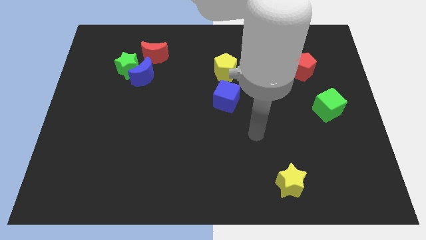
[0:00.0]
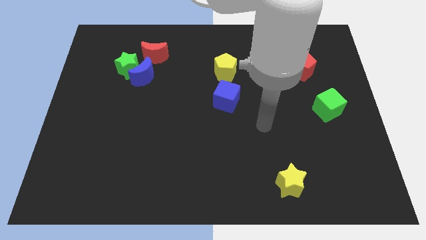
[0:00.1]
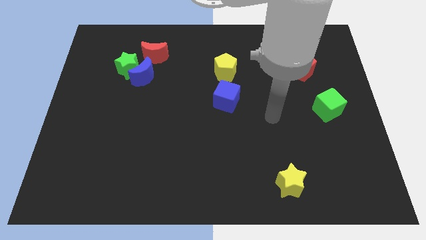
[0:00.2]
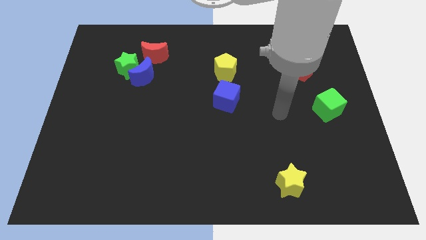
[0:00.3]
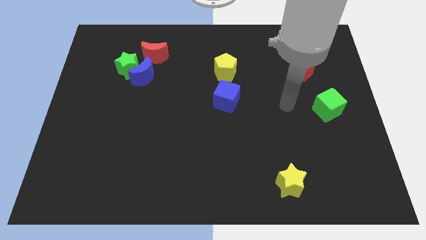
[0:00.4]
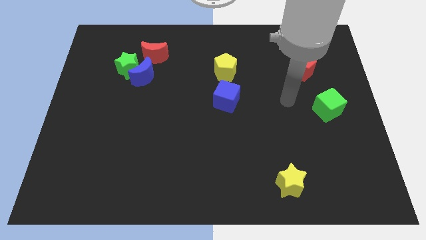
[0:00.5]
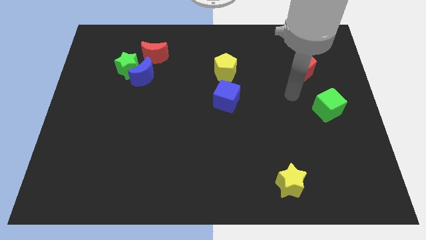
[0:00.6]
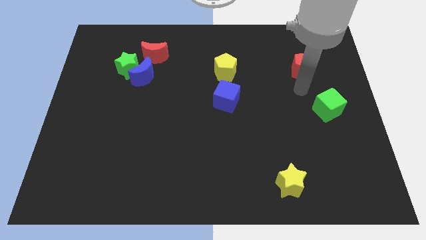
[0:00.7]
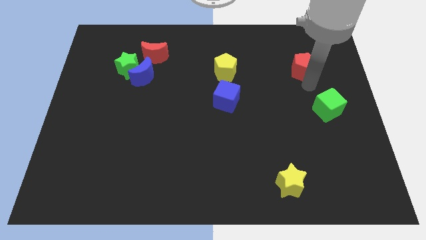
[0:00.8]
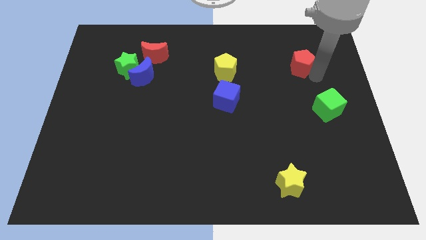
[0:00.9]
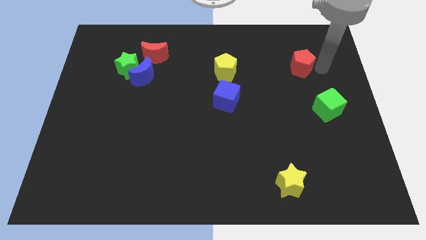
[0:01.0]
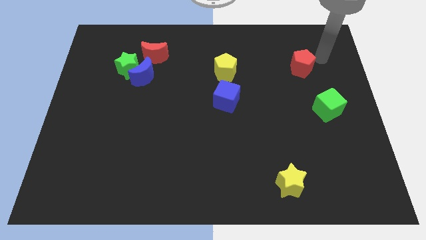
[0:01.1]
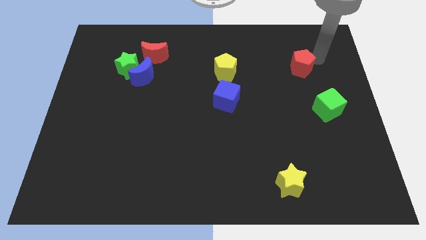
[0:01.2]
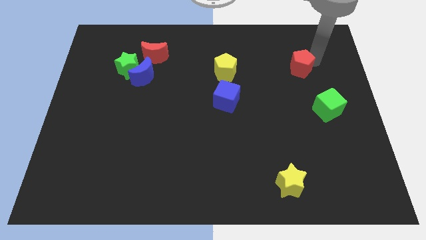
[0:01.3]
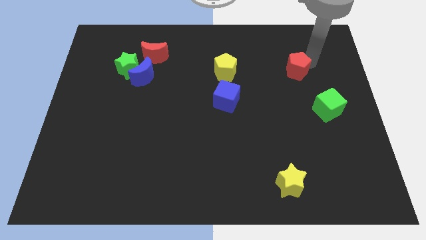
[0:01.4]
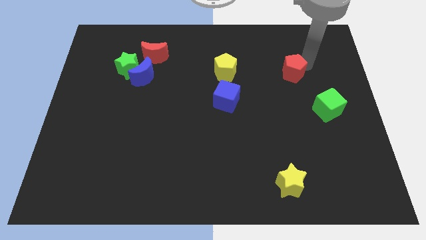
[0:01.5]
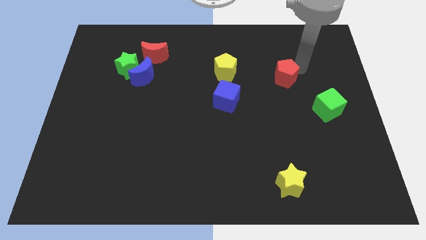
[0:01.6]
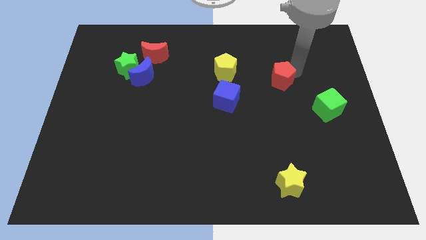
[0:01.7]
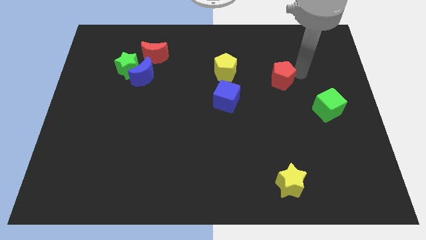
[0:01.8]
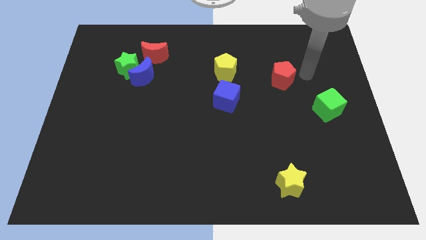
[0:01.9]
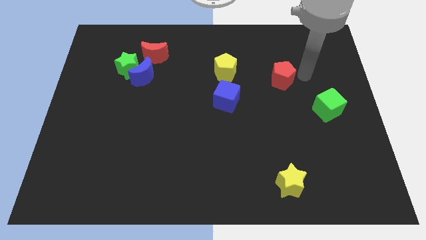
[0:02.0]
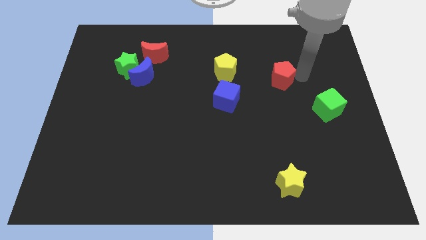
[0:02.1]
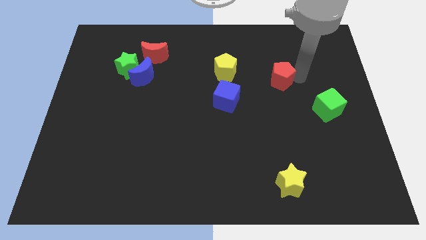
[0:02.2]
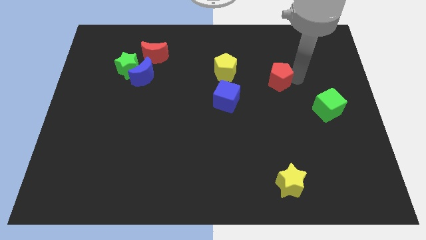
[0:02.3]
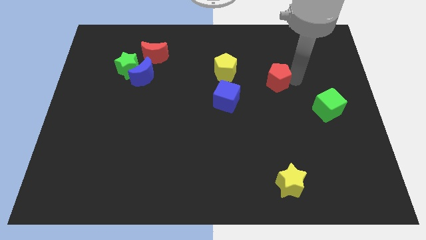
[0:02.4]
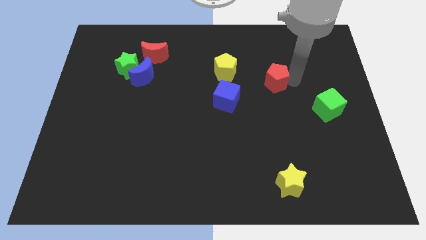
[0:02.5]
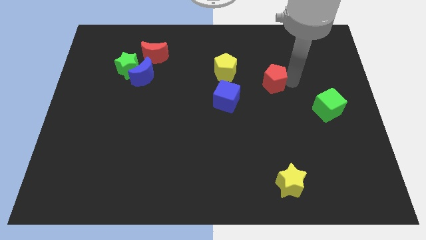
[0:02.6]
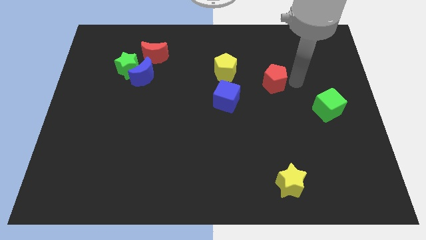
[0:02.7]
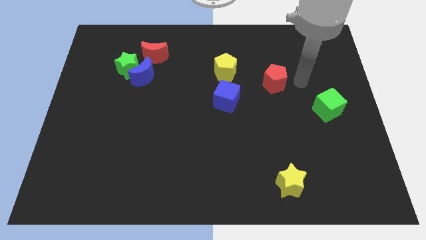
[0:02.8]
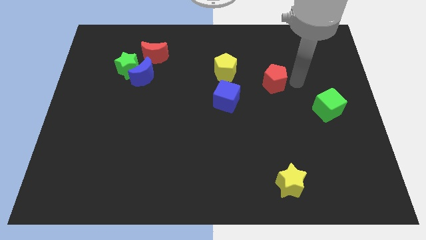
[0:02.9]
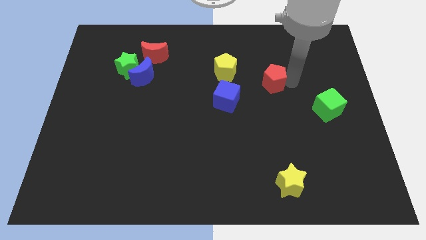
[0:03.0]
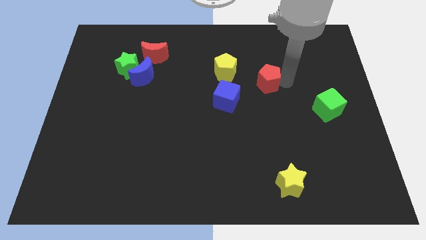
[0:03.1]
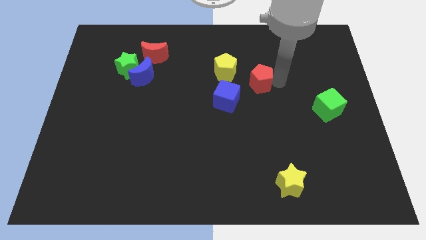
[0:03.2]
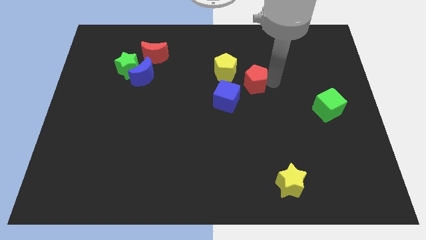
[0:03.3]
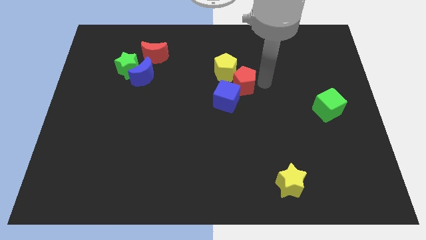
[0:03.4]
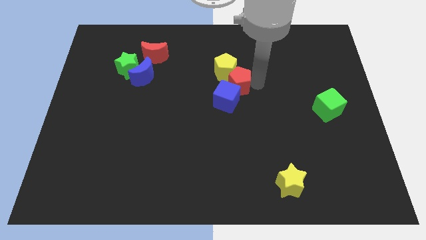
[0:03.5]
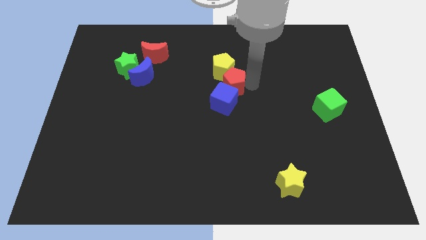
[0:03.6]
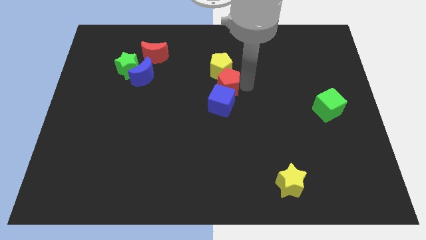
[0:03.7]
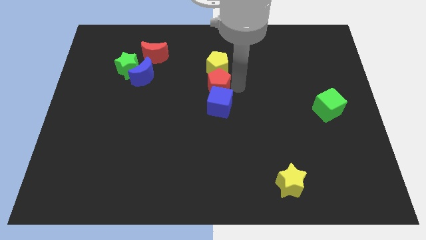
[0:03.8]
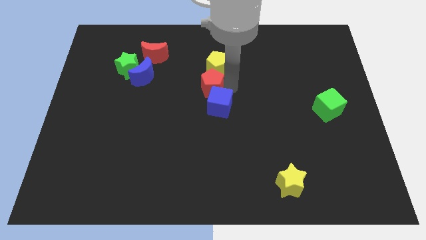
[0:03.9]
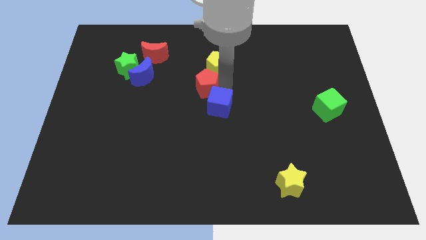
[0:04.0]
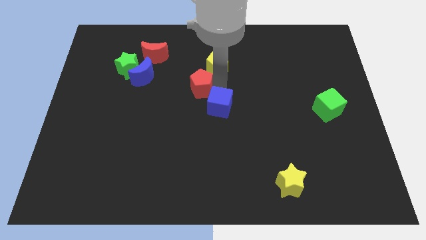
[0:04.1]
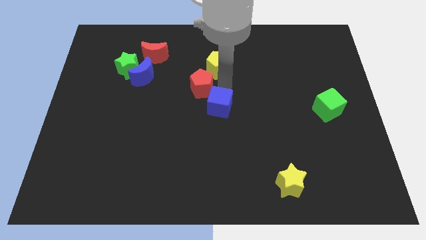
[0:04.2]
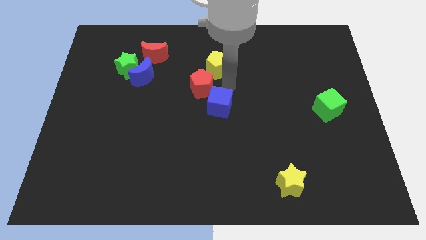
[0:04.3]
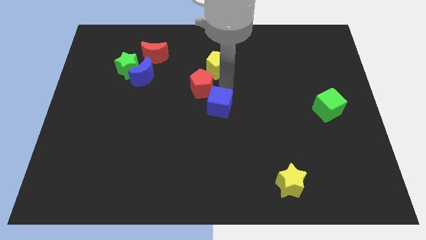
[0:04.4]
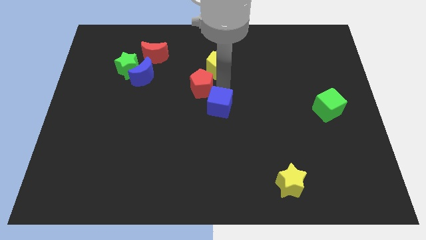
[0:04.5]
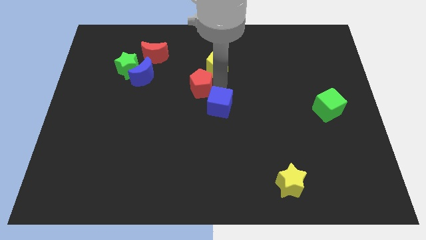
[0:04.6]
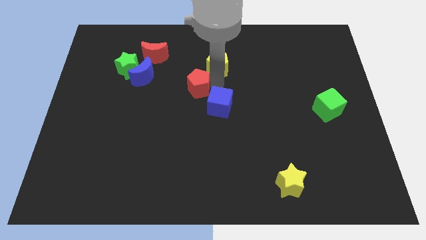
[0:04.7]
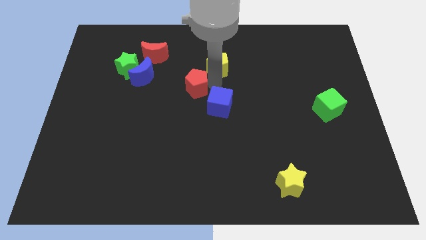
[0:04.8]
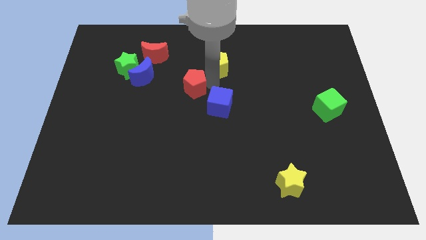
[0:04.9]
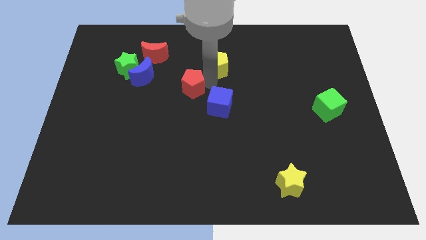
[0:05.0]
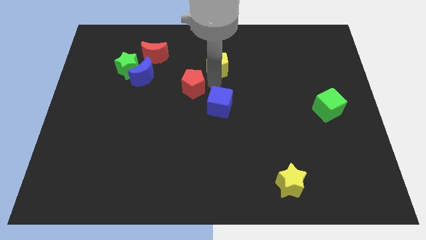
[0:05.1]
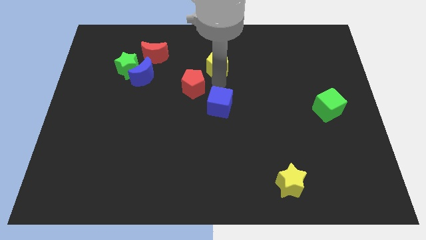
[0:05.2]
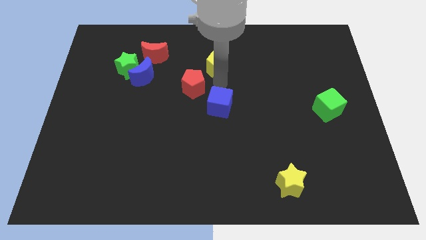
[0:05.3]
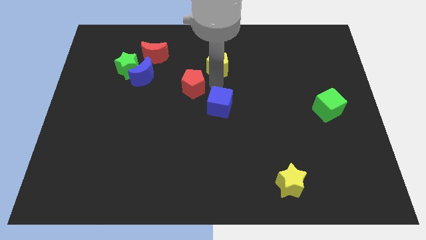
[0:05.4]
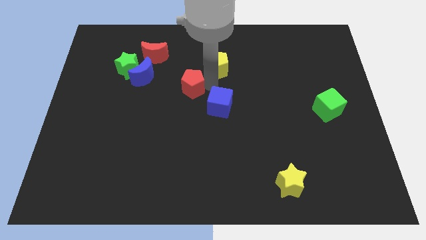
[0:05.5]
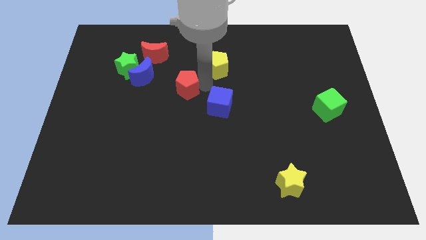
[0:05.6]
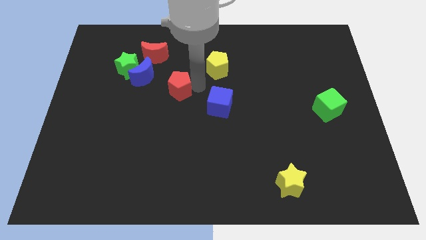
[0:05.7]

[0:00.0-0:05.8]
put the red pentagon to the bottom right side of the blue moon

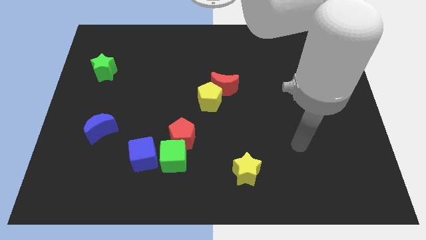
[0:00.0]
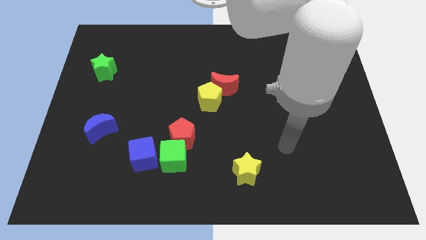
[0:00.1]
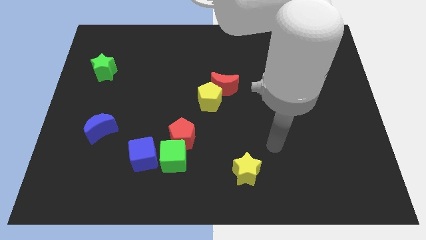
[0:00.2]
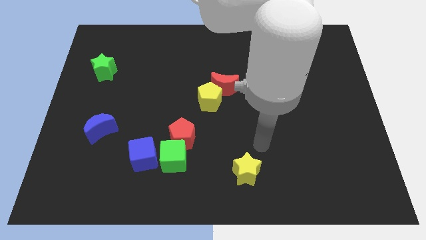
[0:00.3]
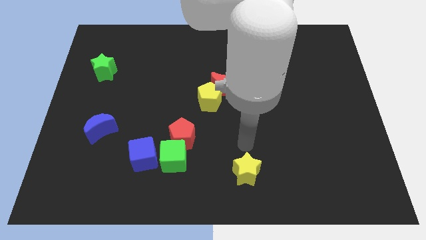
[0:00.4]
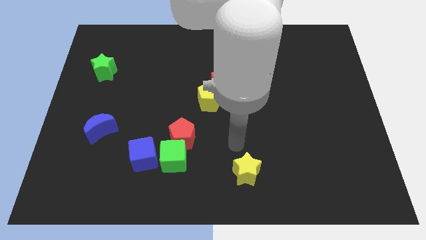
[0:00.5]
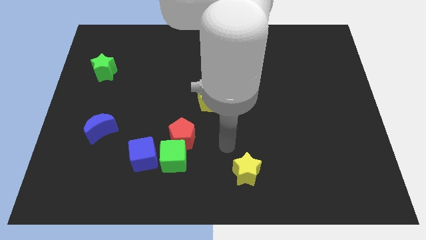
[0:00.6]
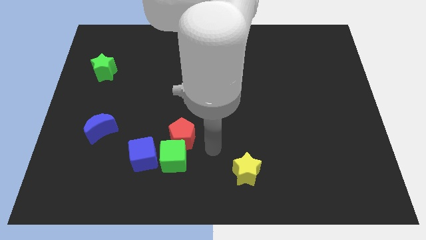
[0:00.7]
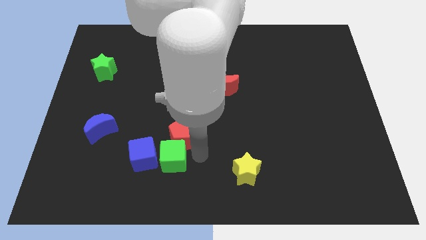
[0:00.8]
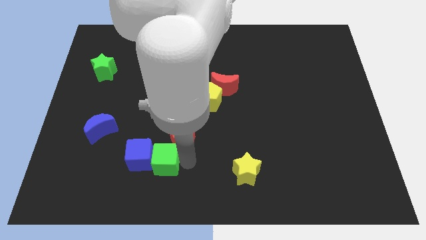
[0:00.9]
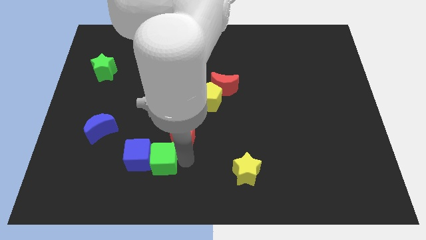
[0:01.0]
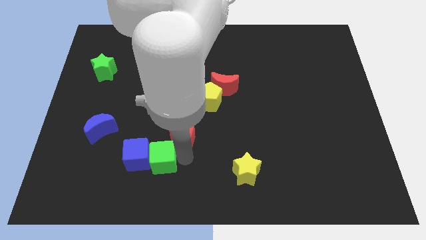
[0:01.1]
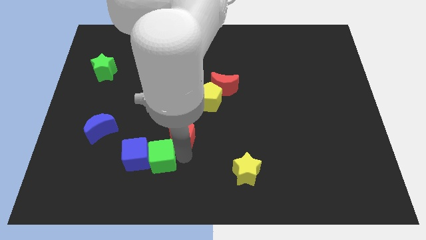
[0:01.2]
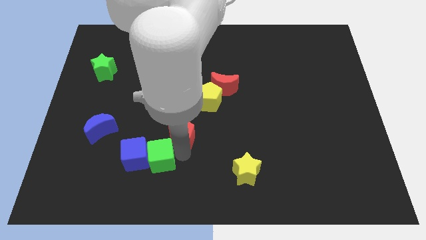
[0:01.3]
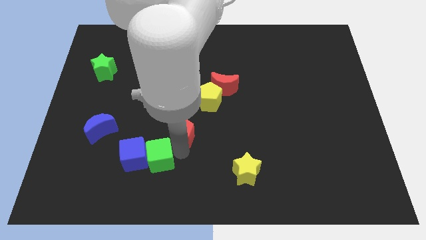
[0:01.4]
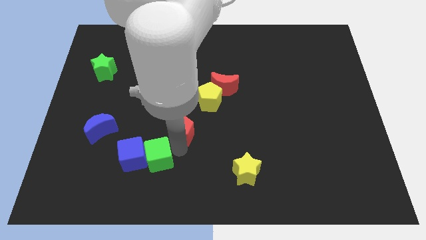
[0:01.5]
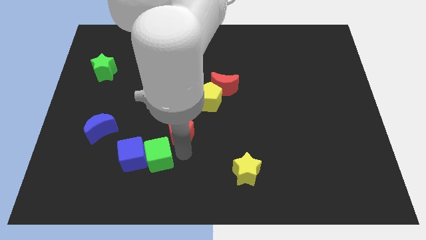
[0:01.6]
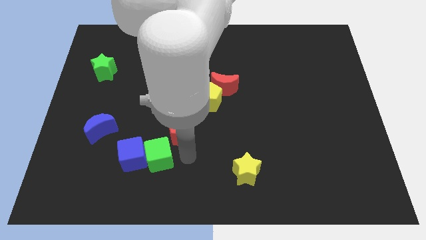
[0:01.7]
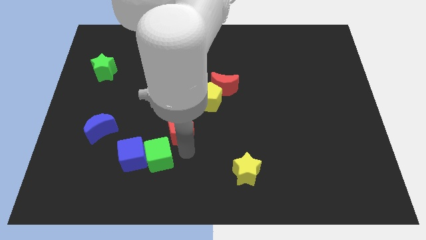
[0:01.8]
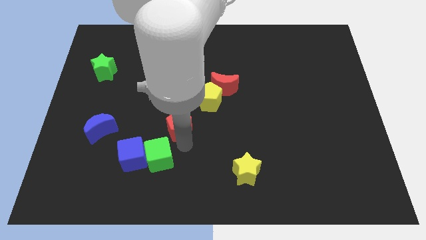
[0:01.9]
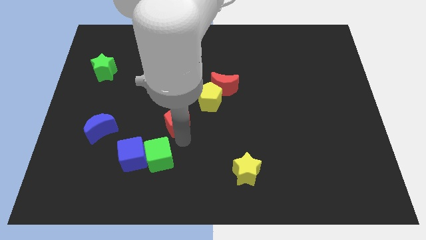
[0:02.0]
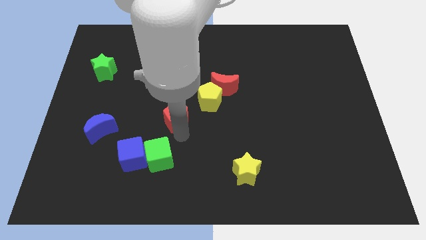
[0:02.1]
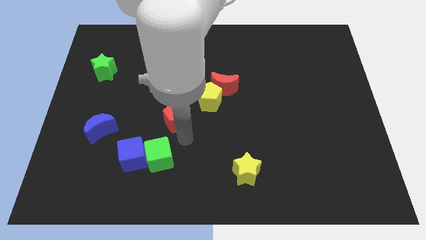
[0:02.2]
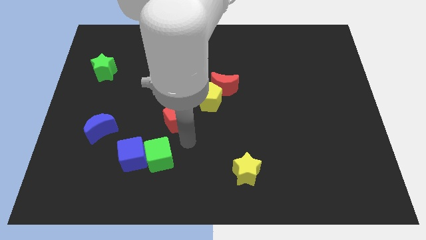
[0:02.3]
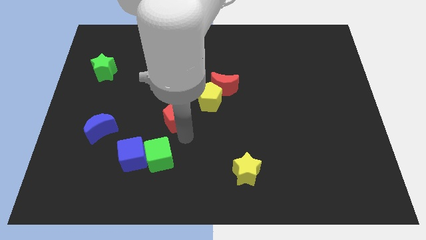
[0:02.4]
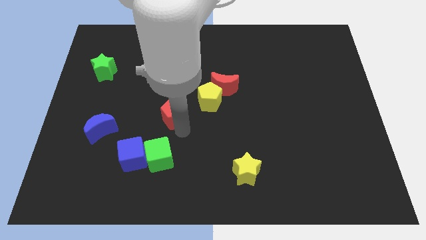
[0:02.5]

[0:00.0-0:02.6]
slide the red pentagon to the left side of the yellow pentagon

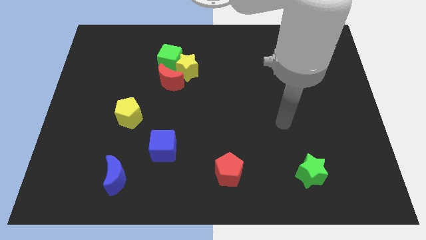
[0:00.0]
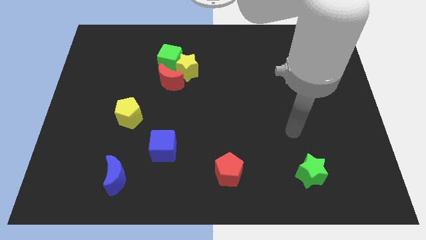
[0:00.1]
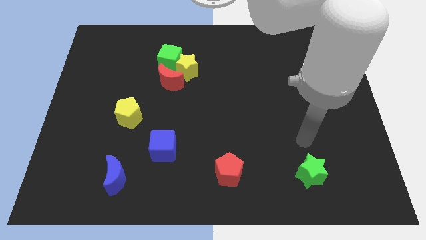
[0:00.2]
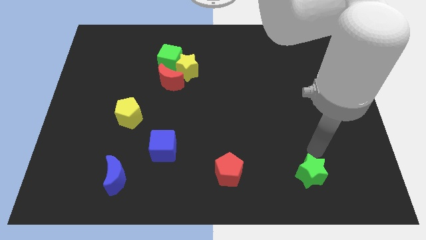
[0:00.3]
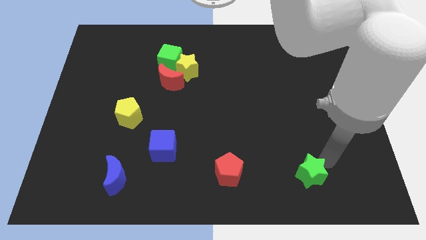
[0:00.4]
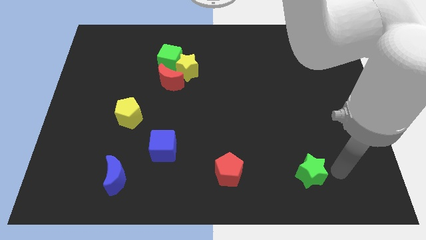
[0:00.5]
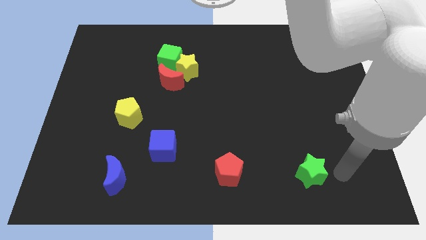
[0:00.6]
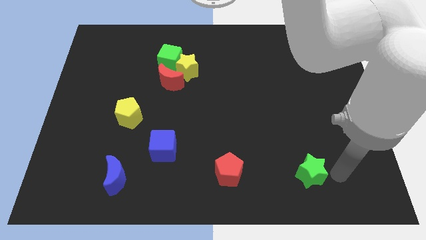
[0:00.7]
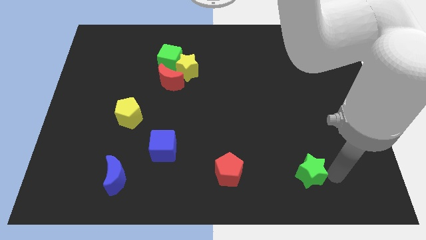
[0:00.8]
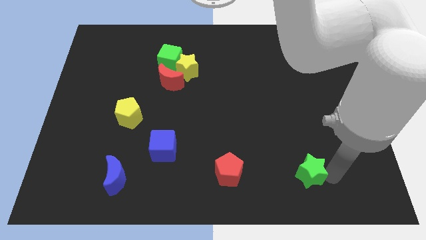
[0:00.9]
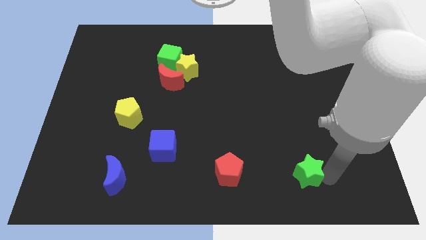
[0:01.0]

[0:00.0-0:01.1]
move the green star to the right side of the red pentagon
